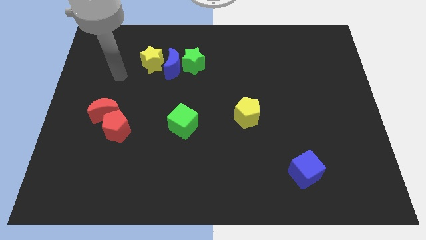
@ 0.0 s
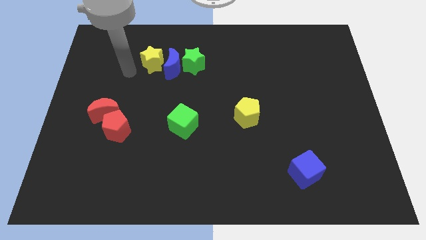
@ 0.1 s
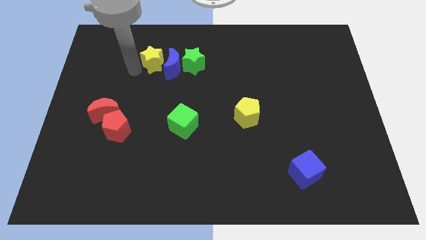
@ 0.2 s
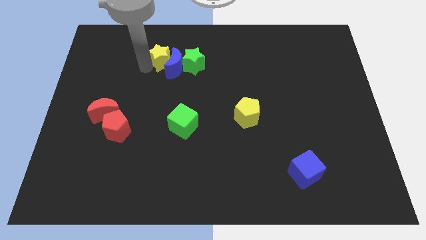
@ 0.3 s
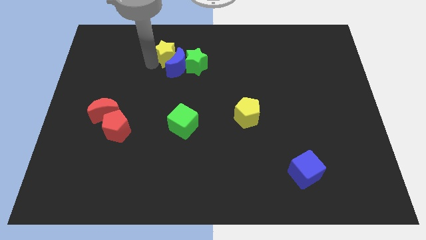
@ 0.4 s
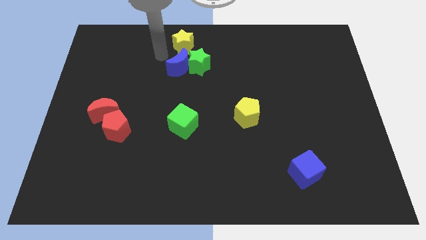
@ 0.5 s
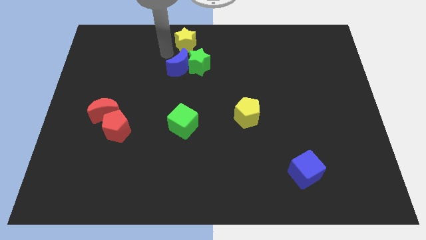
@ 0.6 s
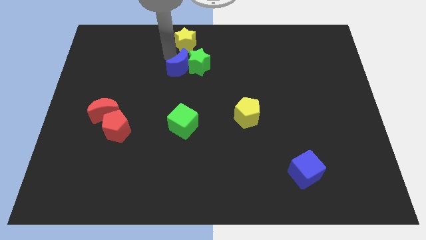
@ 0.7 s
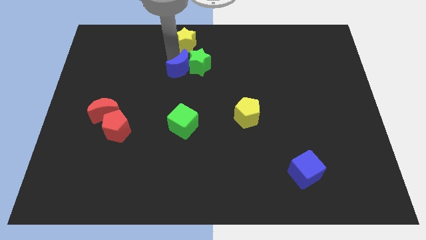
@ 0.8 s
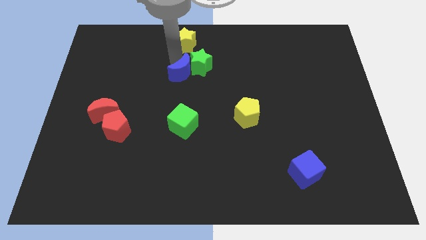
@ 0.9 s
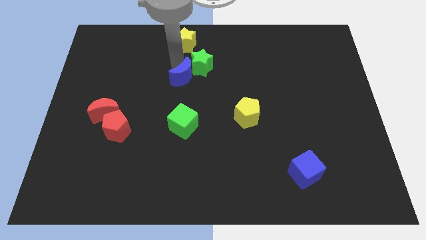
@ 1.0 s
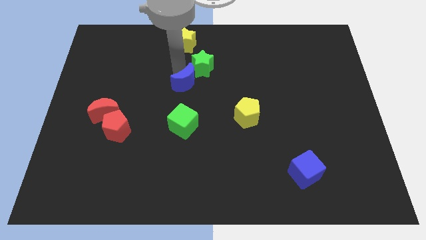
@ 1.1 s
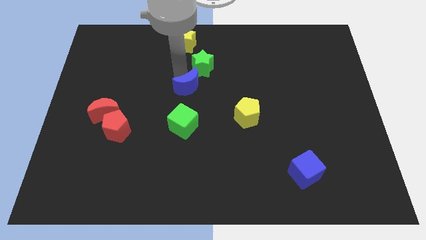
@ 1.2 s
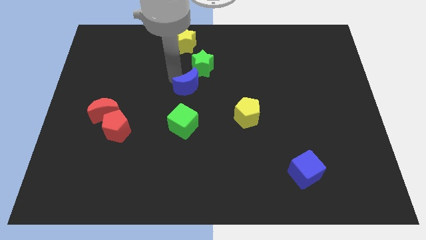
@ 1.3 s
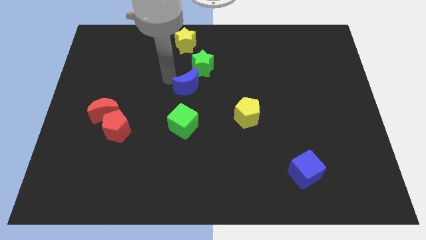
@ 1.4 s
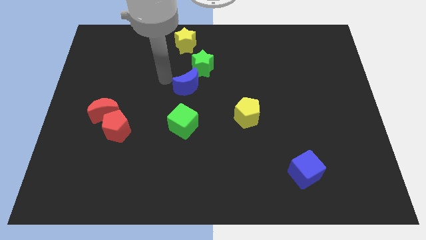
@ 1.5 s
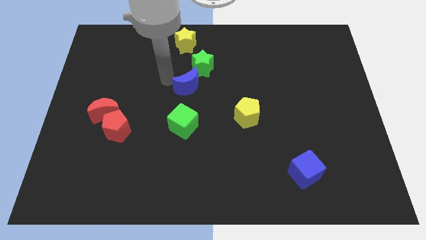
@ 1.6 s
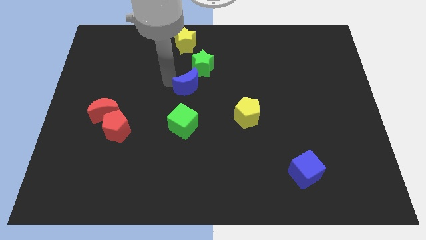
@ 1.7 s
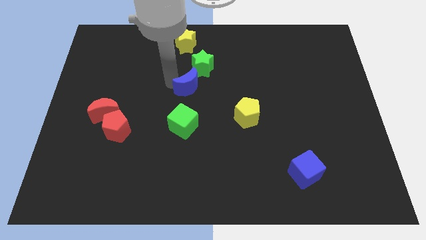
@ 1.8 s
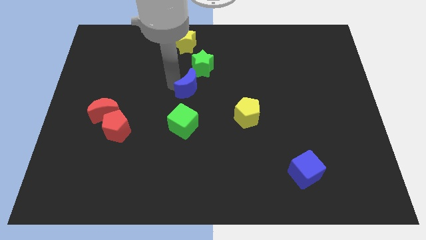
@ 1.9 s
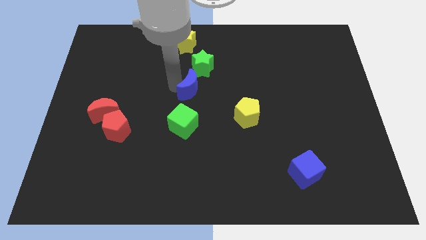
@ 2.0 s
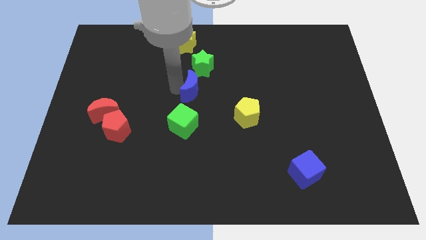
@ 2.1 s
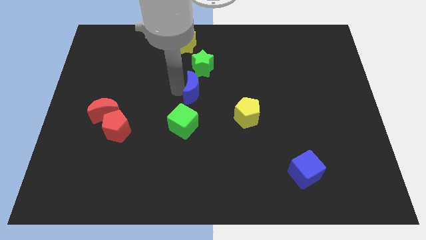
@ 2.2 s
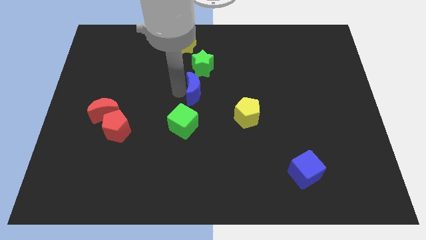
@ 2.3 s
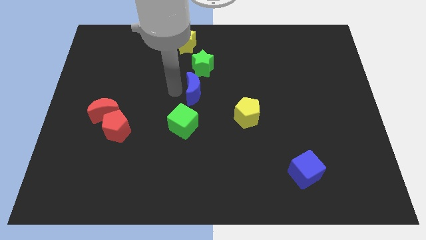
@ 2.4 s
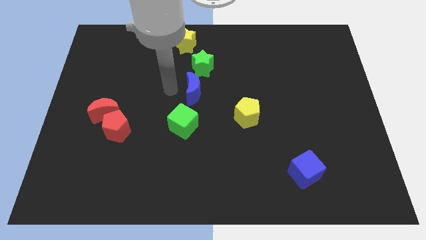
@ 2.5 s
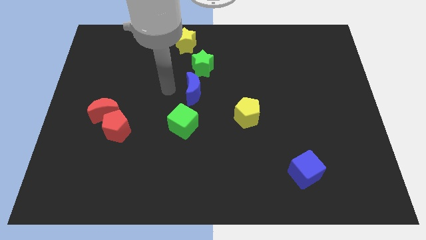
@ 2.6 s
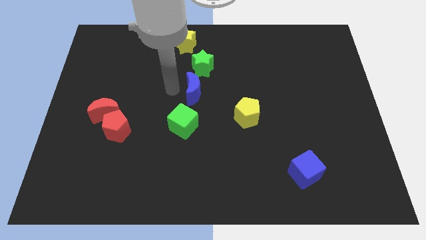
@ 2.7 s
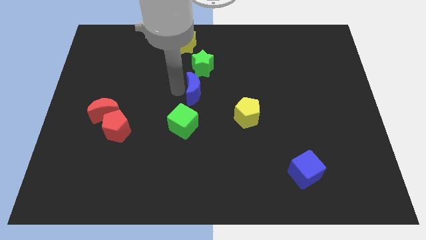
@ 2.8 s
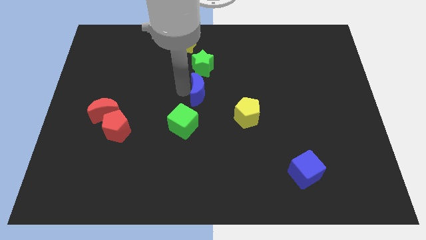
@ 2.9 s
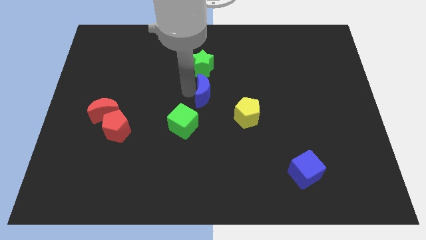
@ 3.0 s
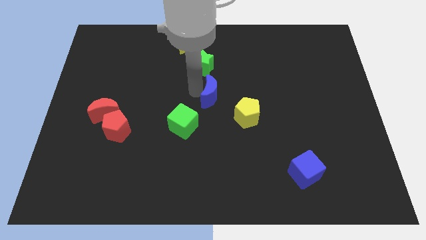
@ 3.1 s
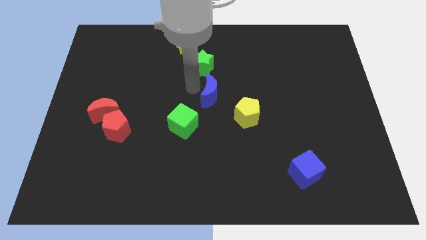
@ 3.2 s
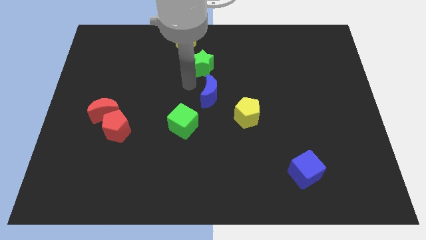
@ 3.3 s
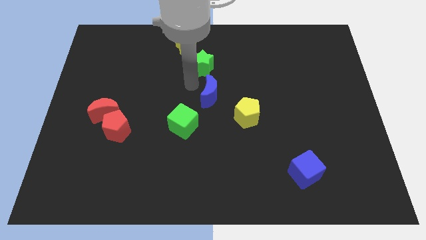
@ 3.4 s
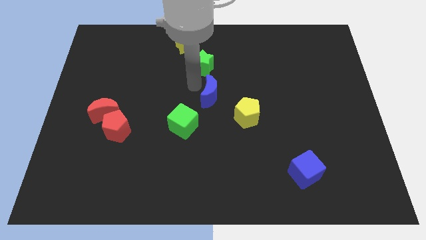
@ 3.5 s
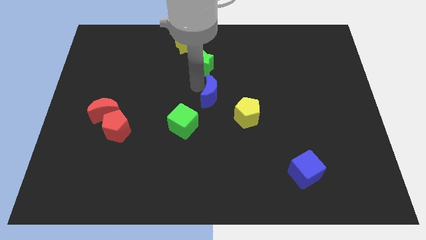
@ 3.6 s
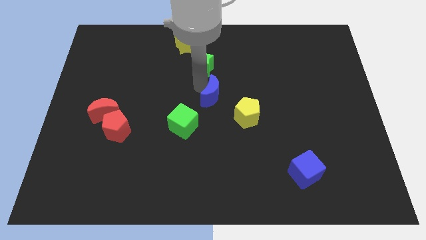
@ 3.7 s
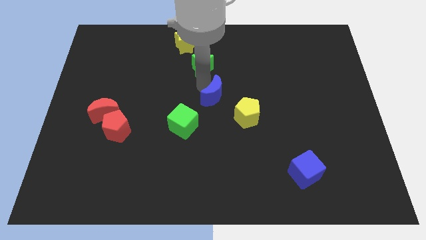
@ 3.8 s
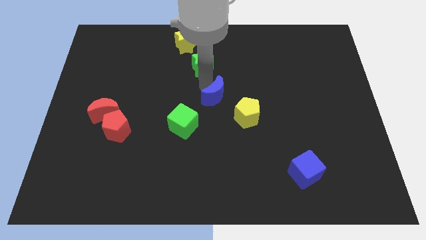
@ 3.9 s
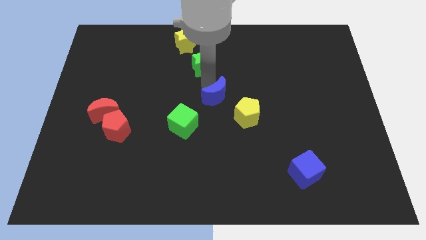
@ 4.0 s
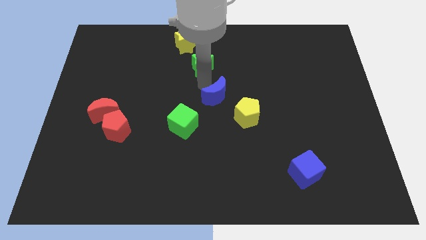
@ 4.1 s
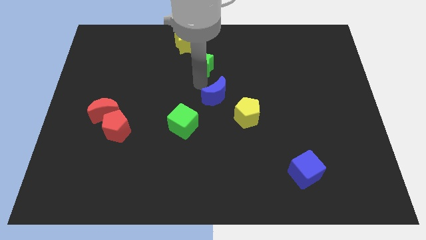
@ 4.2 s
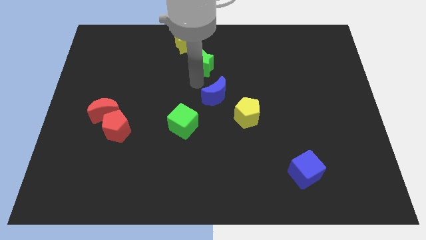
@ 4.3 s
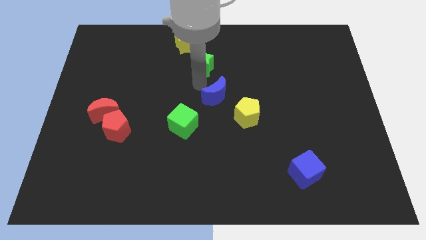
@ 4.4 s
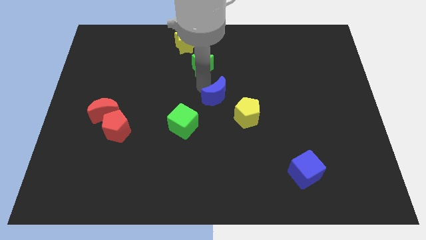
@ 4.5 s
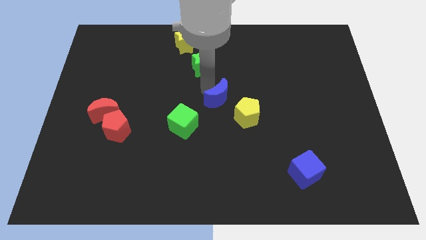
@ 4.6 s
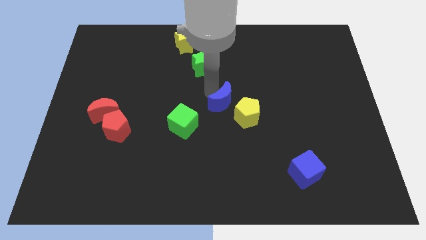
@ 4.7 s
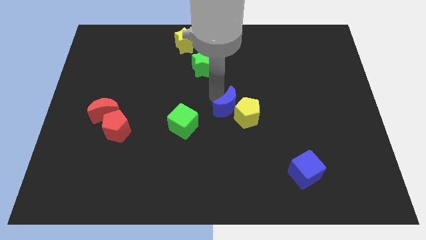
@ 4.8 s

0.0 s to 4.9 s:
slide the blue moon towards the yellow pentagon

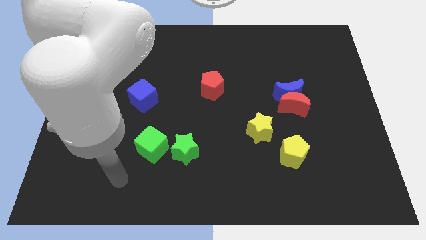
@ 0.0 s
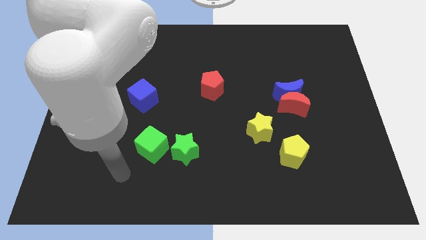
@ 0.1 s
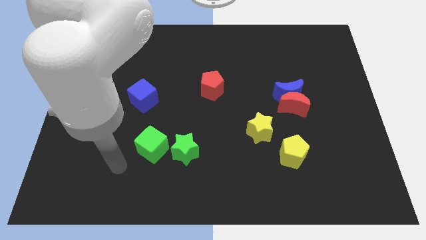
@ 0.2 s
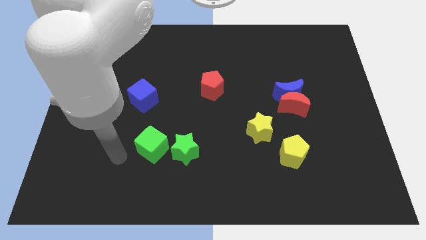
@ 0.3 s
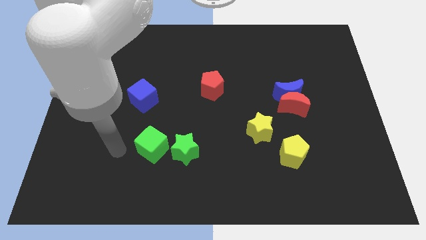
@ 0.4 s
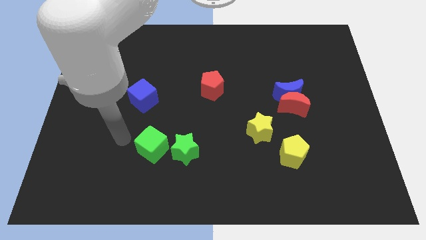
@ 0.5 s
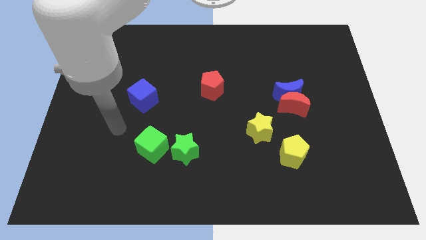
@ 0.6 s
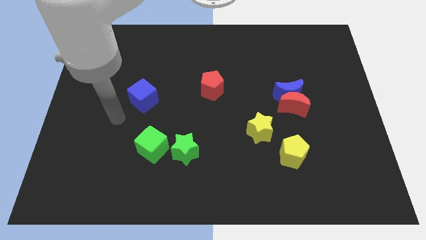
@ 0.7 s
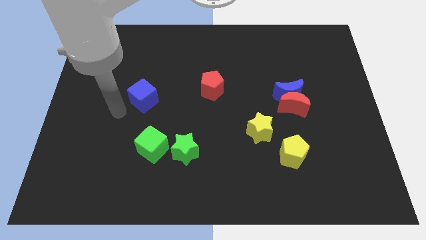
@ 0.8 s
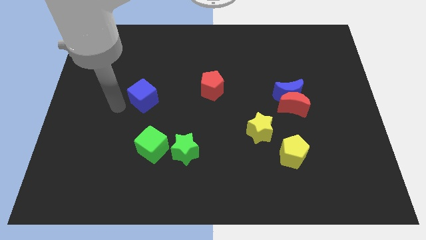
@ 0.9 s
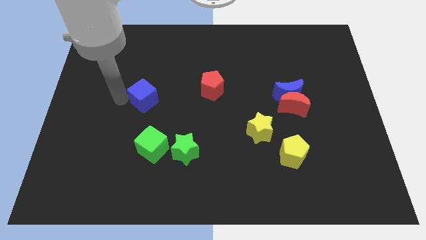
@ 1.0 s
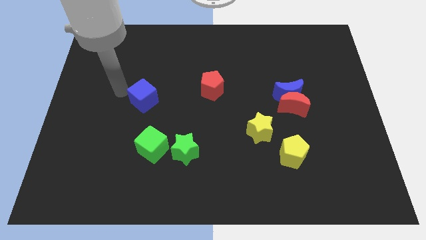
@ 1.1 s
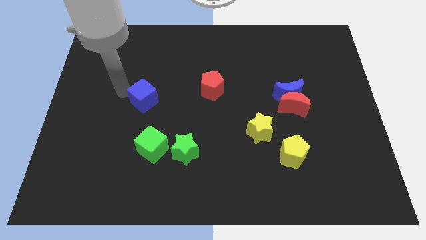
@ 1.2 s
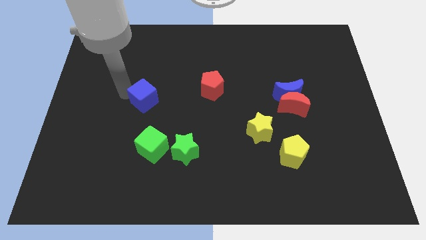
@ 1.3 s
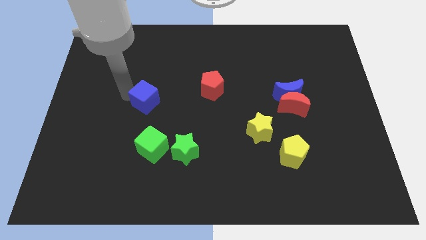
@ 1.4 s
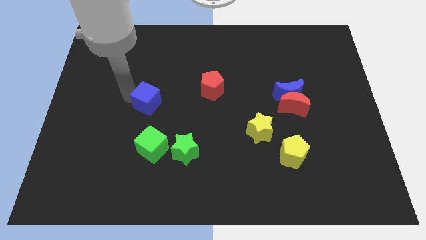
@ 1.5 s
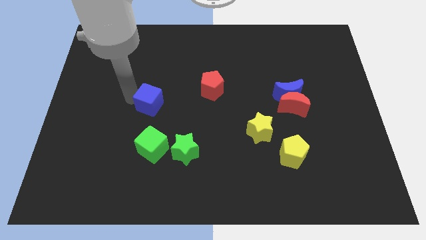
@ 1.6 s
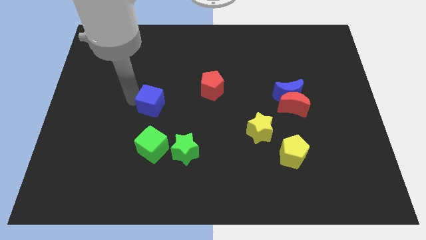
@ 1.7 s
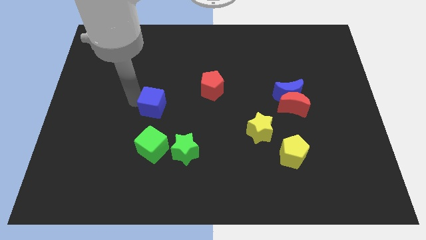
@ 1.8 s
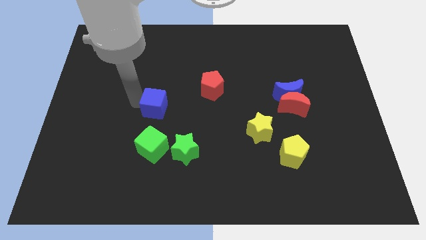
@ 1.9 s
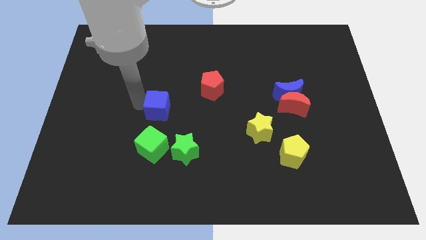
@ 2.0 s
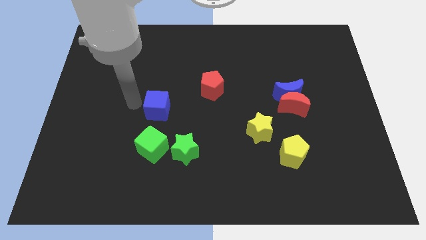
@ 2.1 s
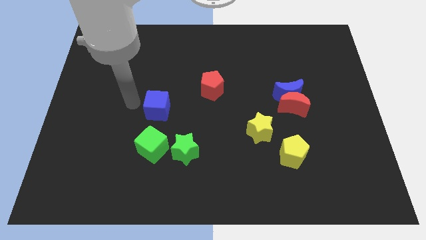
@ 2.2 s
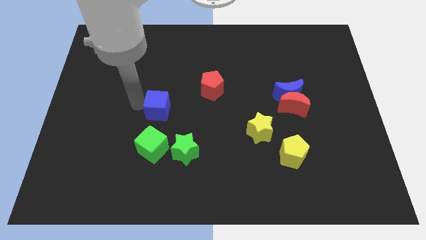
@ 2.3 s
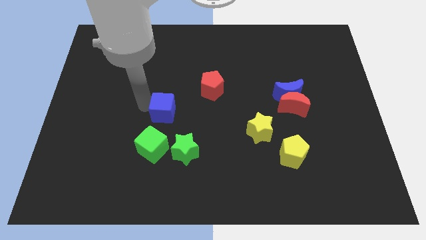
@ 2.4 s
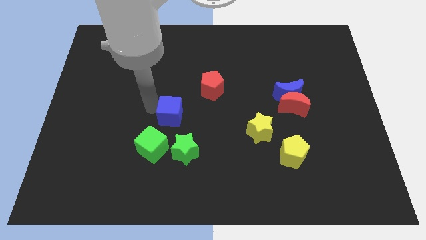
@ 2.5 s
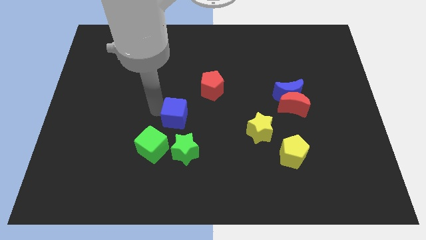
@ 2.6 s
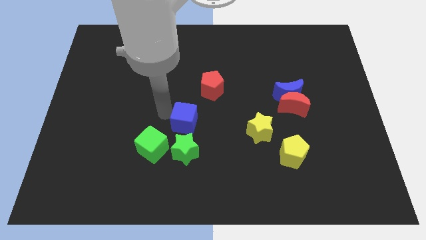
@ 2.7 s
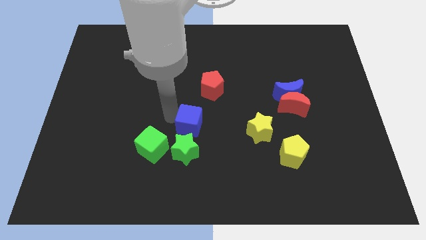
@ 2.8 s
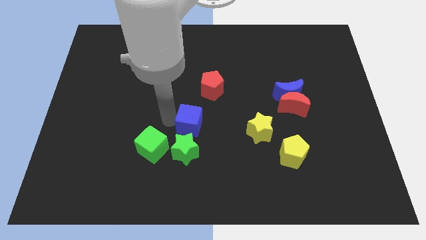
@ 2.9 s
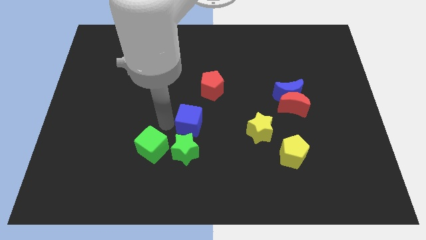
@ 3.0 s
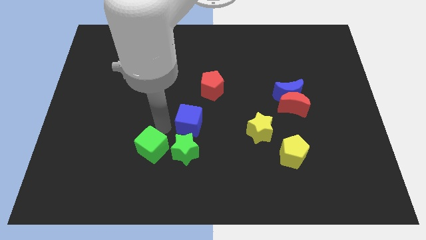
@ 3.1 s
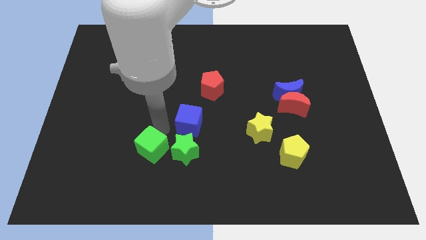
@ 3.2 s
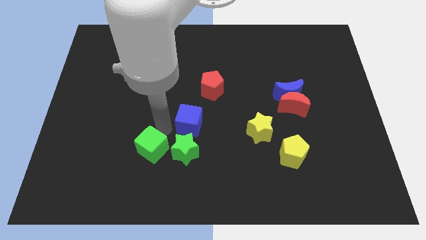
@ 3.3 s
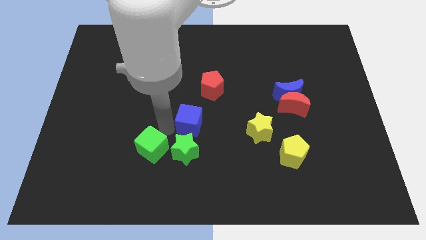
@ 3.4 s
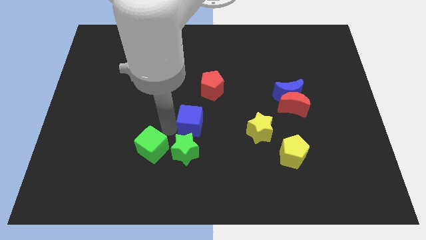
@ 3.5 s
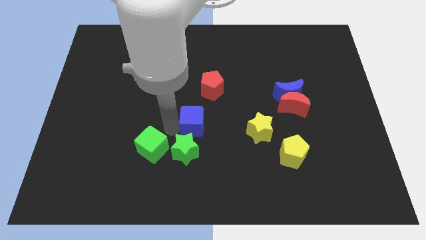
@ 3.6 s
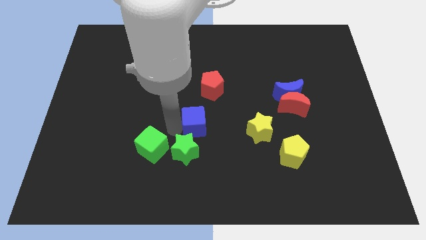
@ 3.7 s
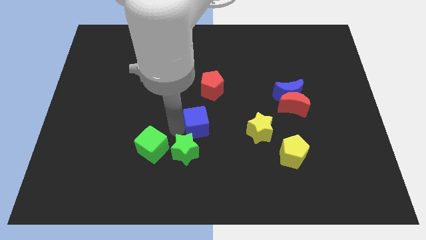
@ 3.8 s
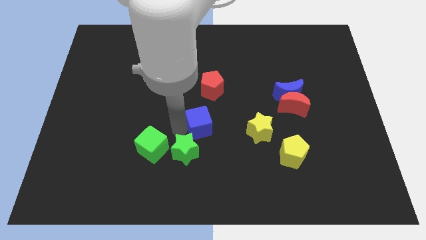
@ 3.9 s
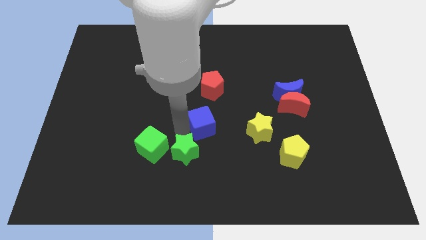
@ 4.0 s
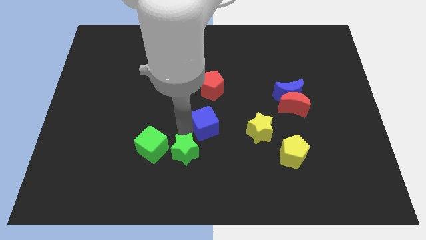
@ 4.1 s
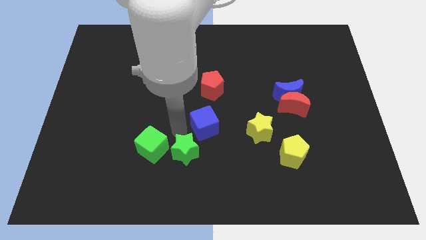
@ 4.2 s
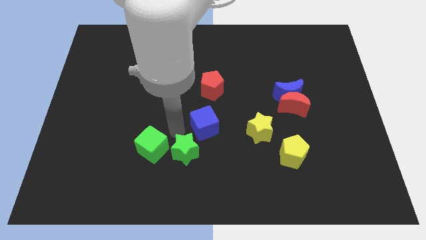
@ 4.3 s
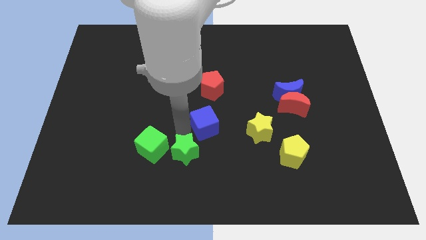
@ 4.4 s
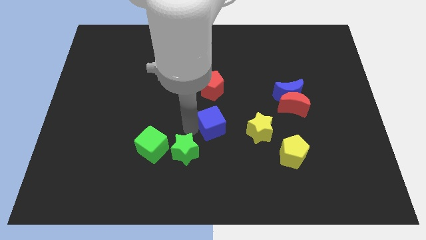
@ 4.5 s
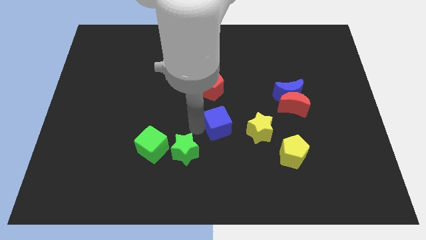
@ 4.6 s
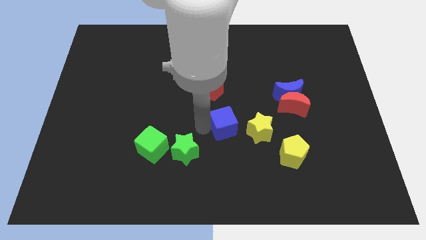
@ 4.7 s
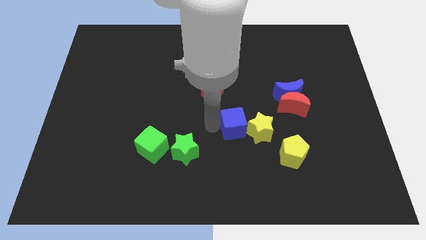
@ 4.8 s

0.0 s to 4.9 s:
put the blue cube close to the yellow star
